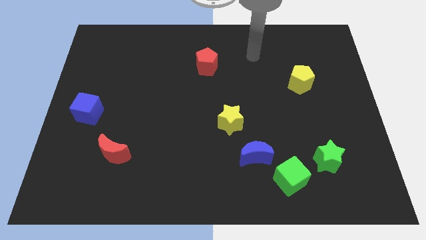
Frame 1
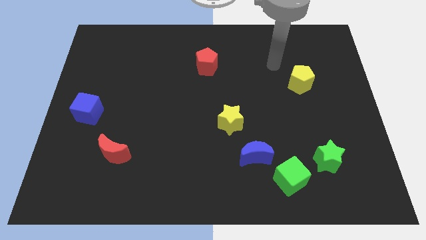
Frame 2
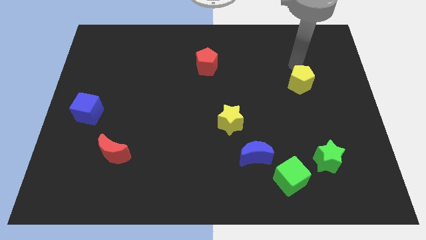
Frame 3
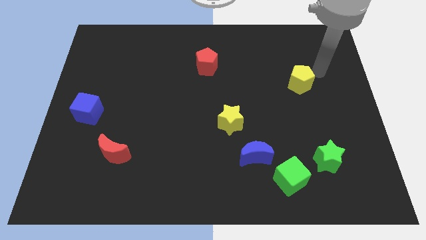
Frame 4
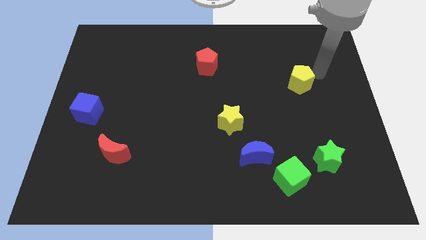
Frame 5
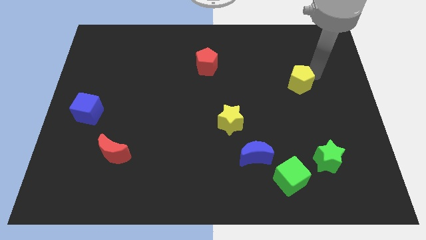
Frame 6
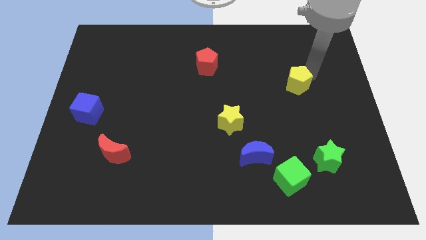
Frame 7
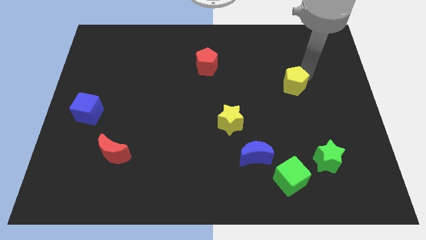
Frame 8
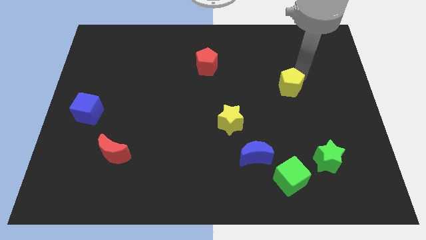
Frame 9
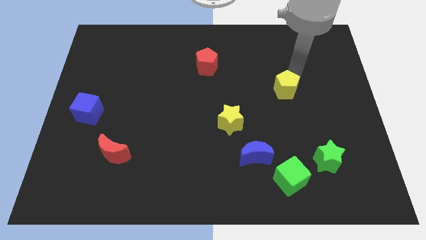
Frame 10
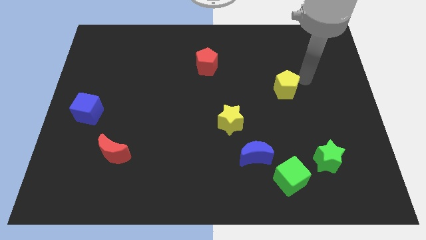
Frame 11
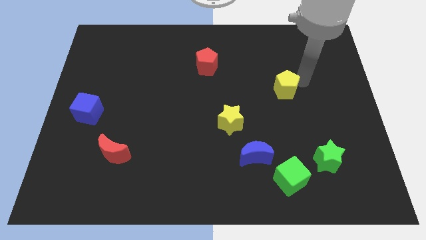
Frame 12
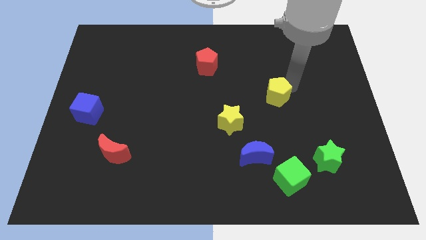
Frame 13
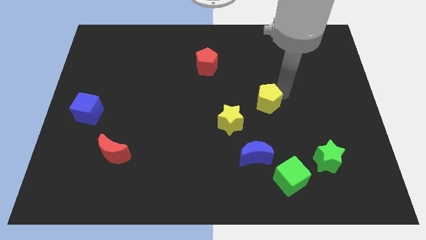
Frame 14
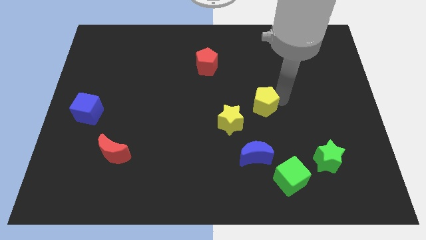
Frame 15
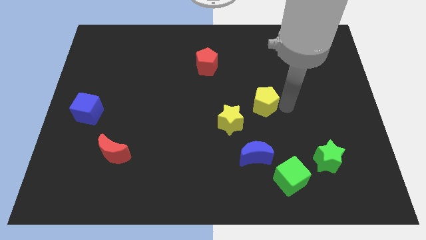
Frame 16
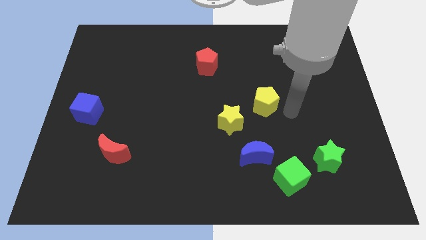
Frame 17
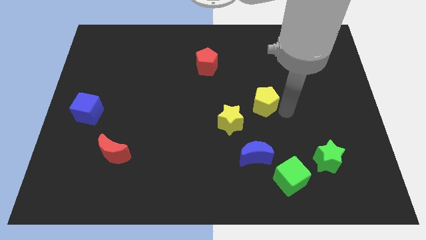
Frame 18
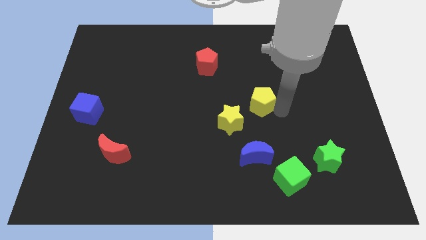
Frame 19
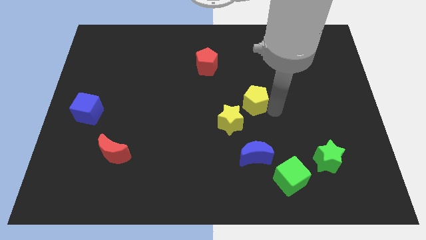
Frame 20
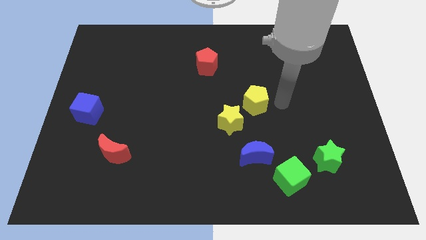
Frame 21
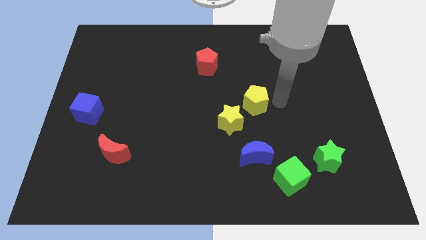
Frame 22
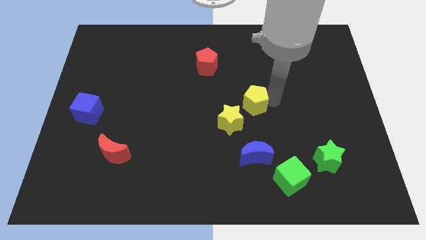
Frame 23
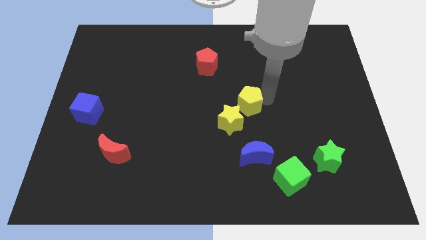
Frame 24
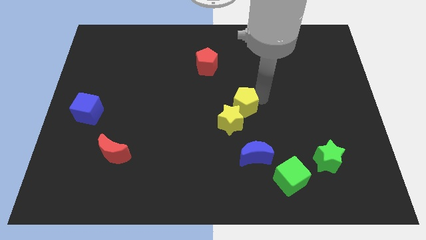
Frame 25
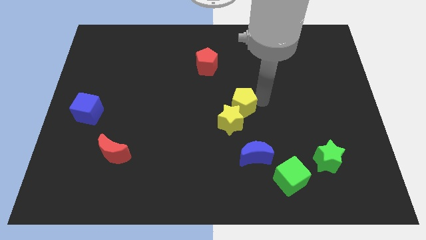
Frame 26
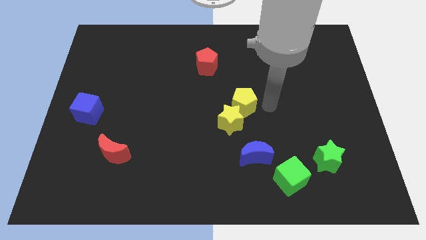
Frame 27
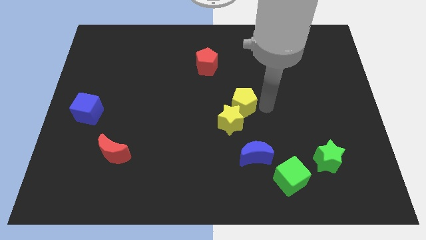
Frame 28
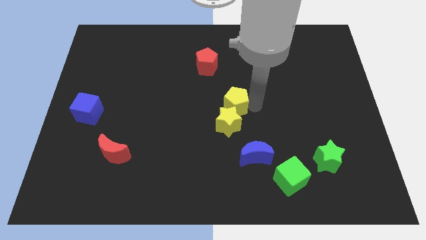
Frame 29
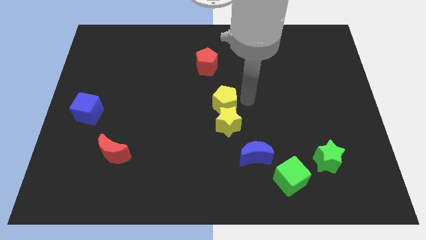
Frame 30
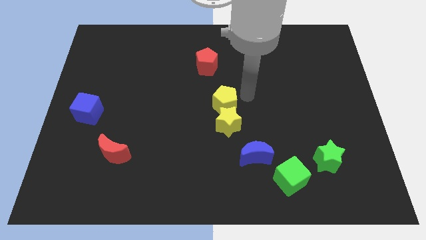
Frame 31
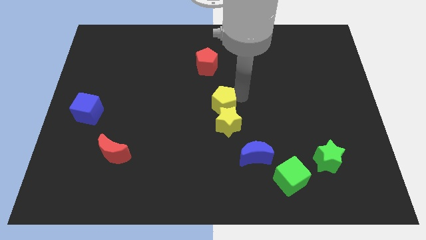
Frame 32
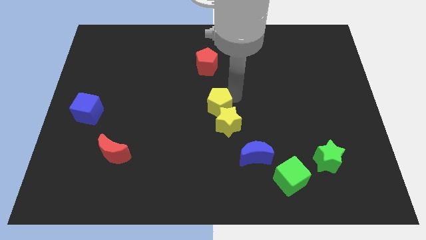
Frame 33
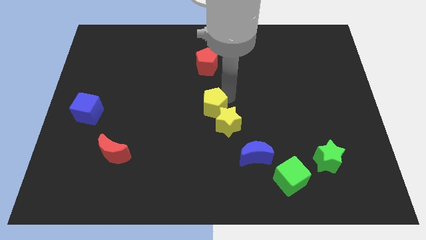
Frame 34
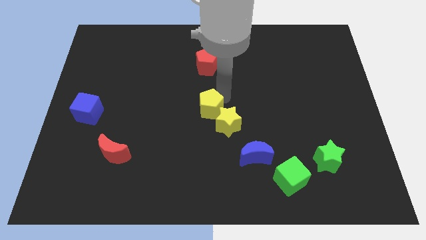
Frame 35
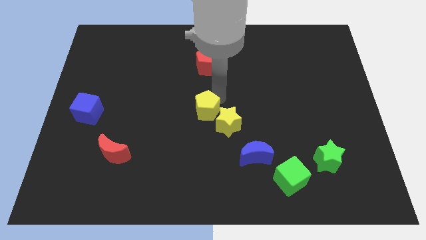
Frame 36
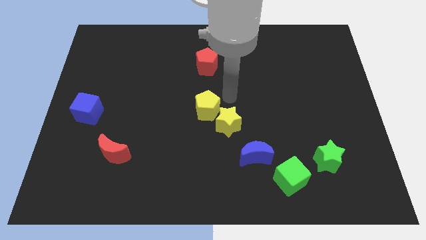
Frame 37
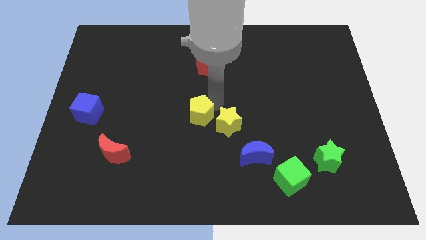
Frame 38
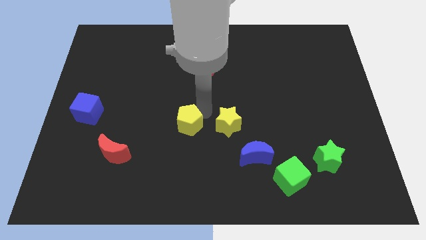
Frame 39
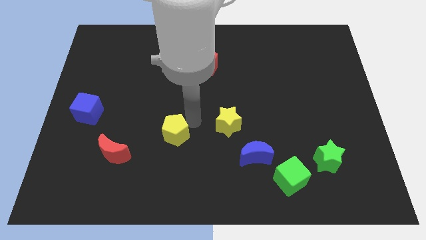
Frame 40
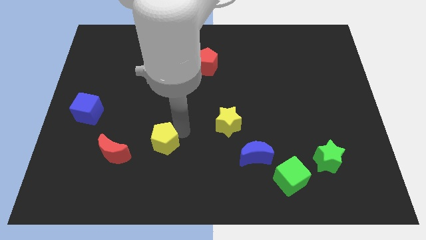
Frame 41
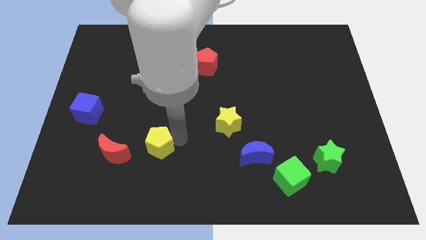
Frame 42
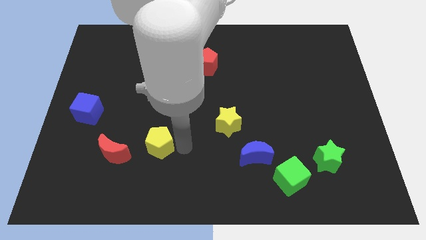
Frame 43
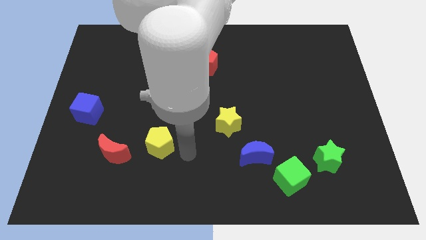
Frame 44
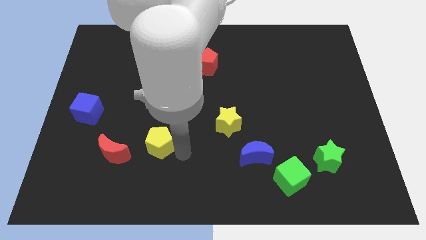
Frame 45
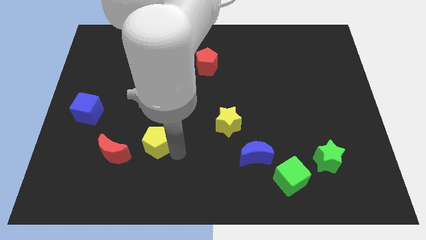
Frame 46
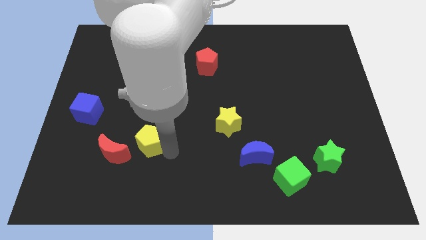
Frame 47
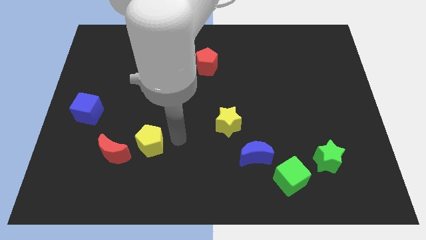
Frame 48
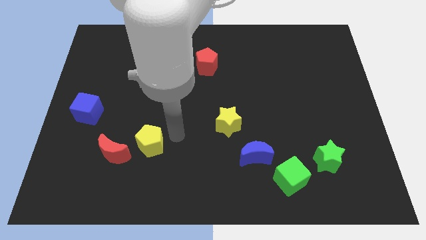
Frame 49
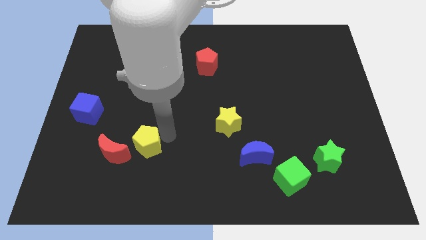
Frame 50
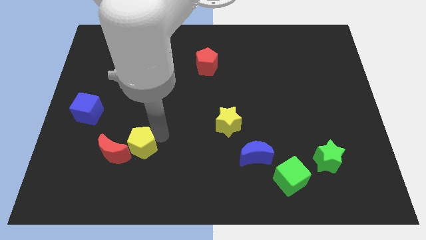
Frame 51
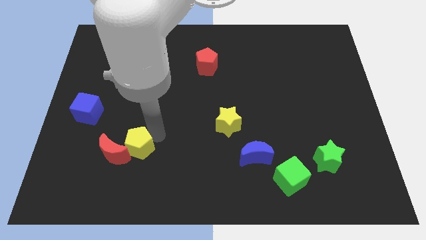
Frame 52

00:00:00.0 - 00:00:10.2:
put the yellow pentagon next to the red moon

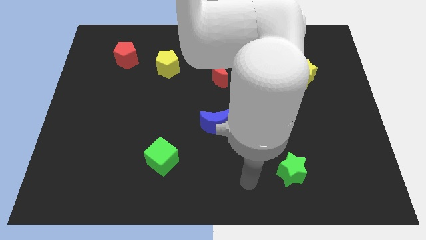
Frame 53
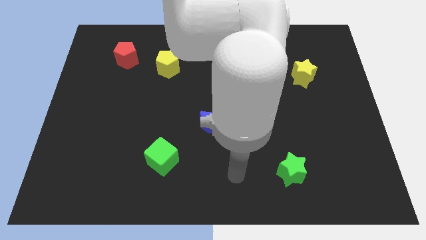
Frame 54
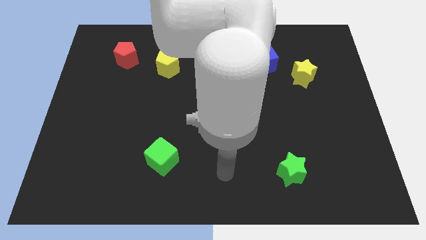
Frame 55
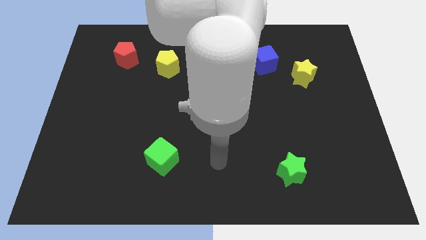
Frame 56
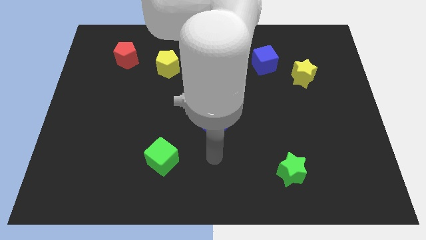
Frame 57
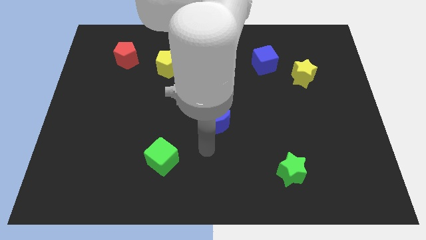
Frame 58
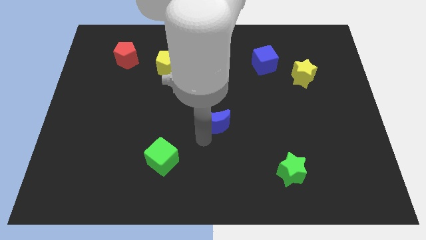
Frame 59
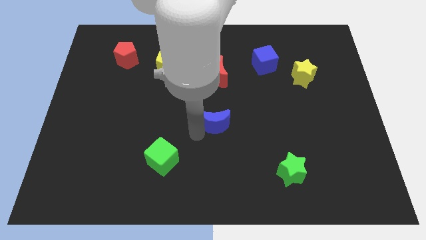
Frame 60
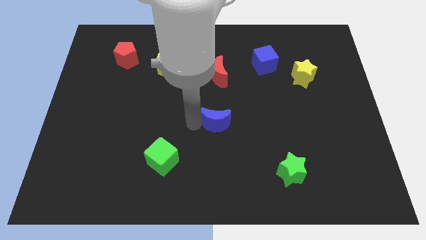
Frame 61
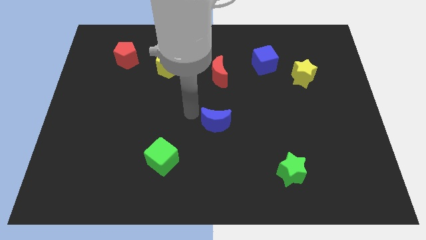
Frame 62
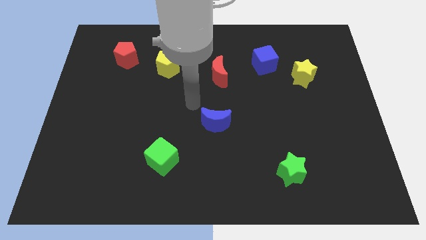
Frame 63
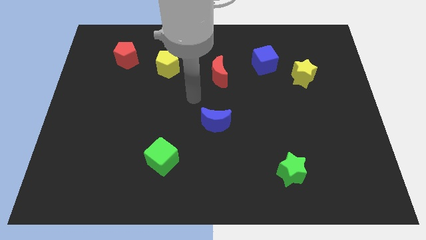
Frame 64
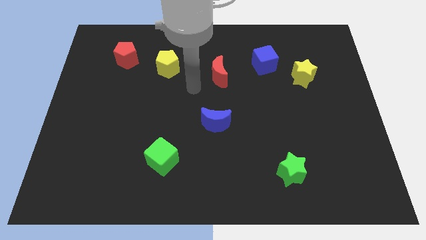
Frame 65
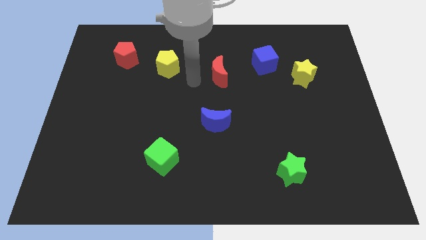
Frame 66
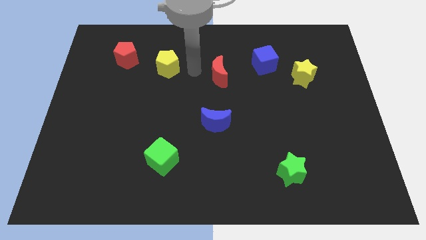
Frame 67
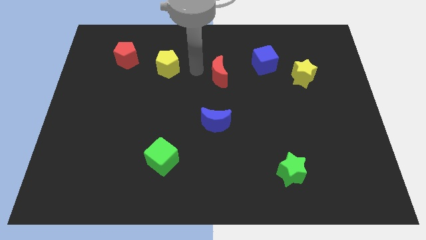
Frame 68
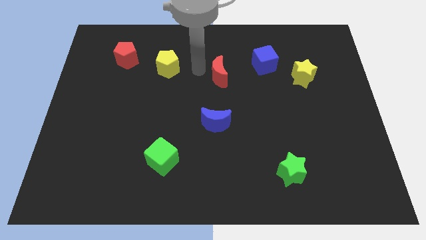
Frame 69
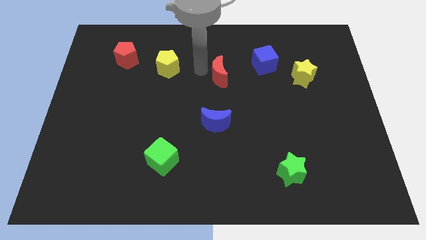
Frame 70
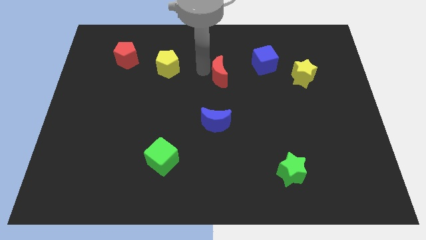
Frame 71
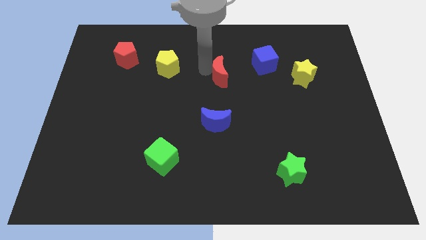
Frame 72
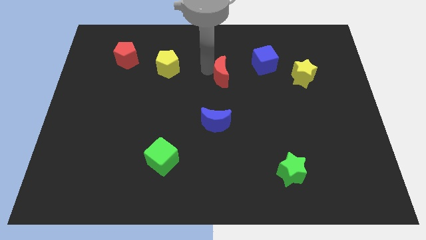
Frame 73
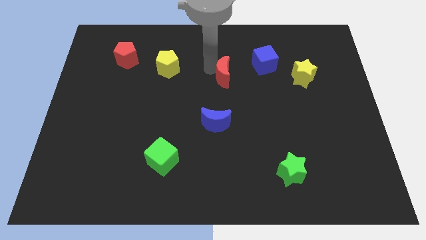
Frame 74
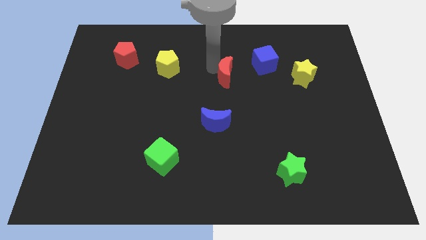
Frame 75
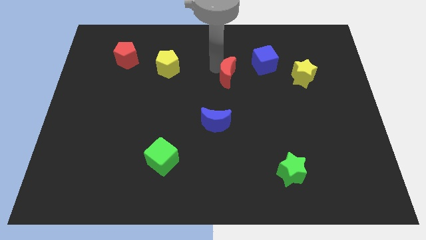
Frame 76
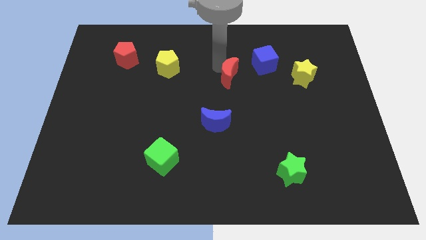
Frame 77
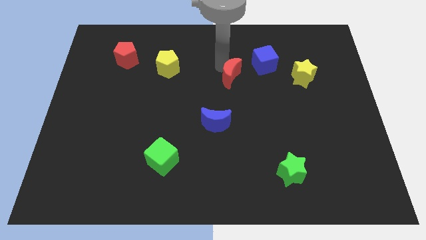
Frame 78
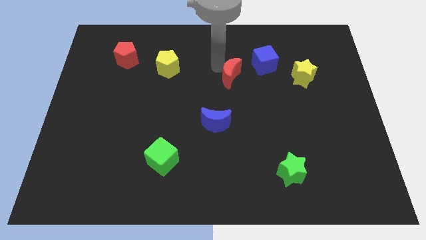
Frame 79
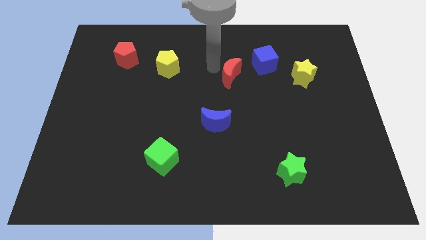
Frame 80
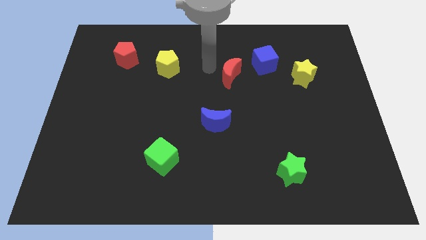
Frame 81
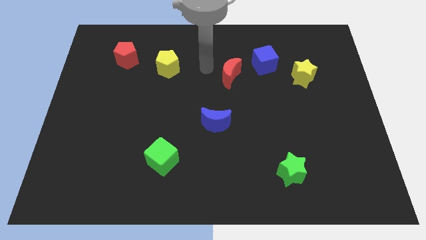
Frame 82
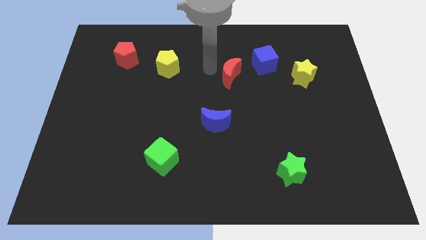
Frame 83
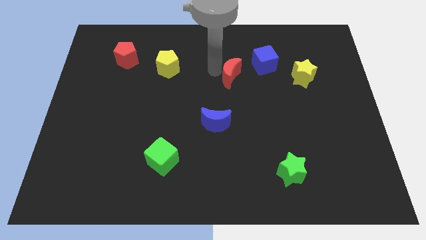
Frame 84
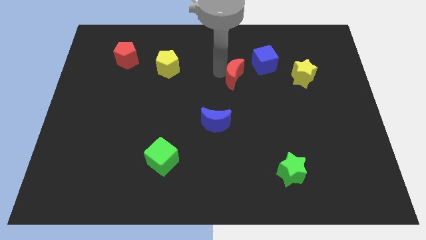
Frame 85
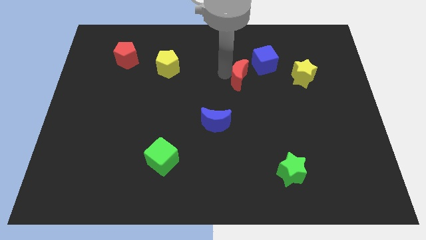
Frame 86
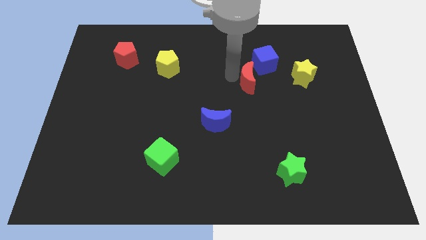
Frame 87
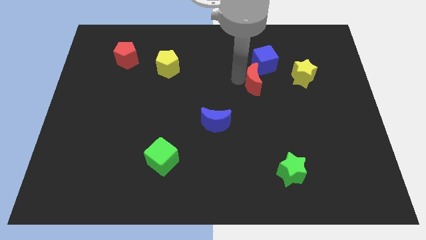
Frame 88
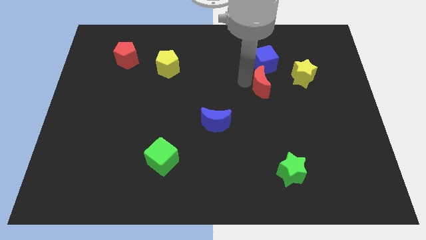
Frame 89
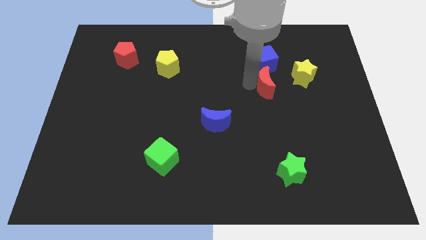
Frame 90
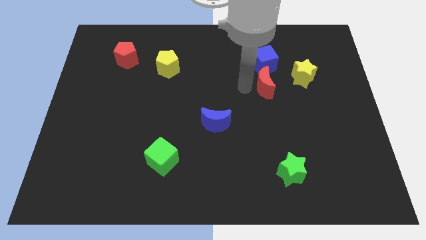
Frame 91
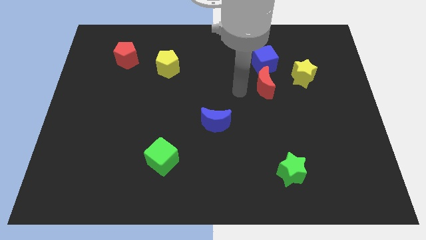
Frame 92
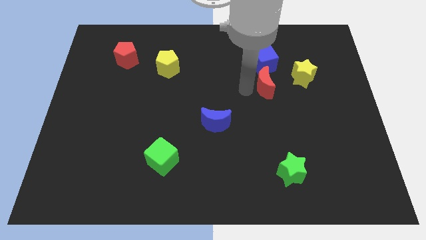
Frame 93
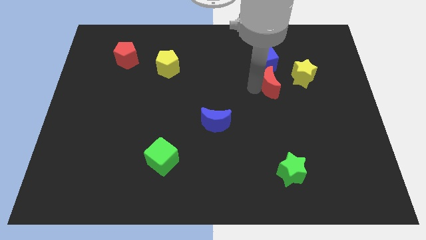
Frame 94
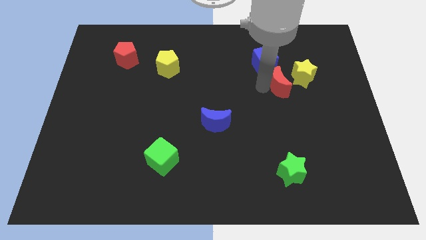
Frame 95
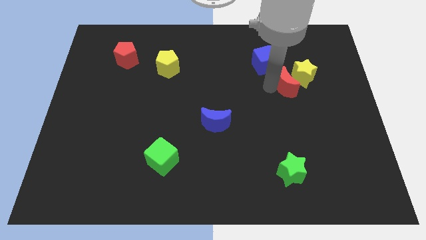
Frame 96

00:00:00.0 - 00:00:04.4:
put the red moon close to the yellow star
